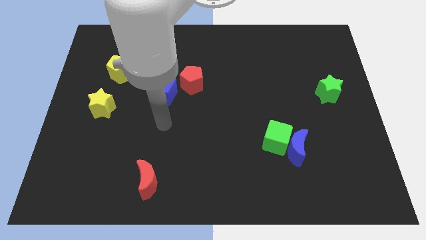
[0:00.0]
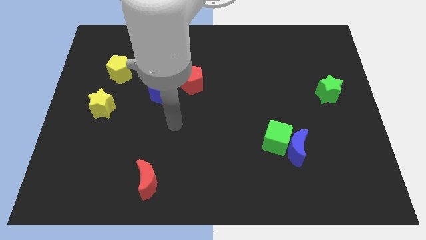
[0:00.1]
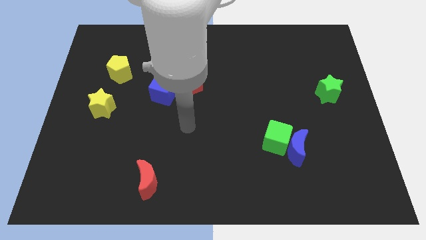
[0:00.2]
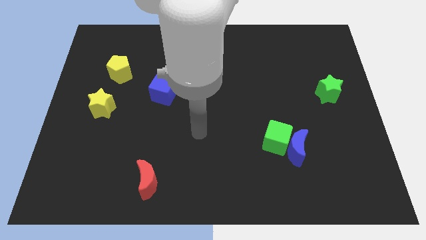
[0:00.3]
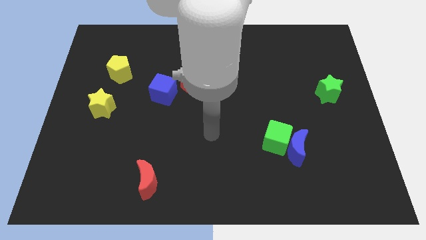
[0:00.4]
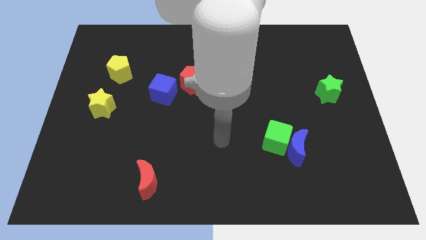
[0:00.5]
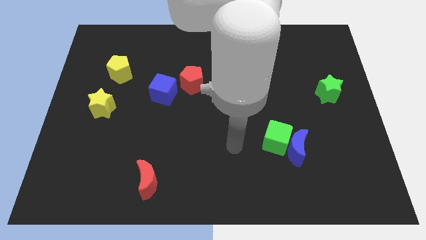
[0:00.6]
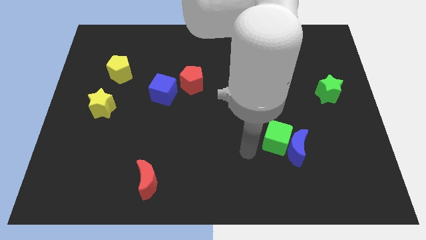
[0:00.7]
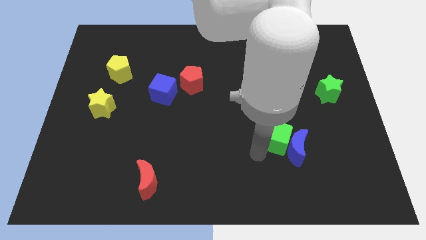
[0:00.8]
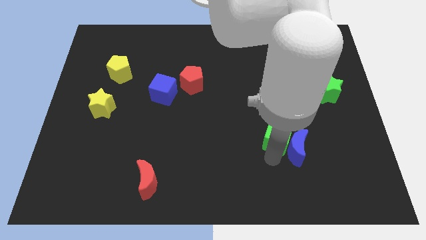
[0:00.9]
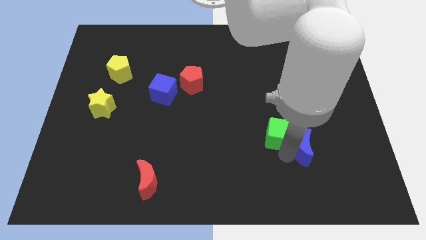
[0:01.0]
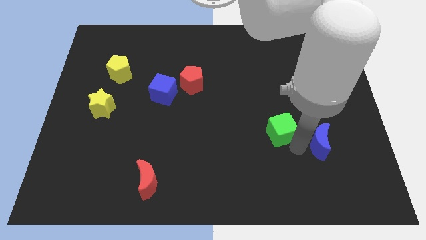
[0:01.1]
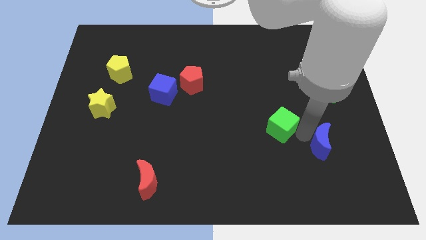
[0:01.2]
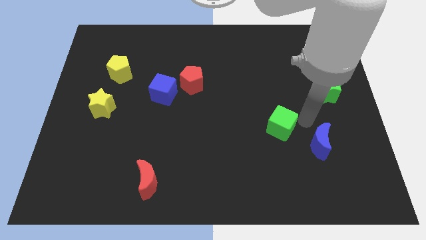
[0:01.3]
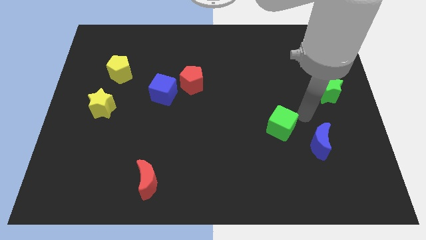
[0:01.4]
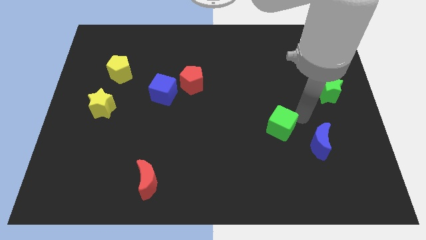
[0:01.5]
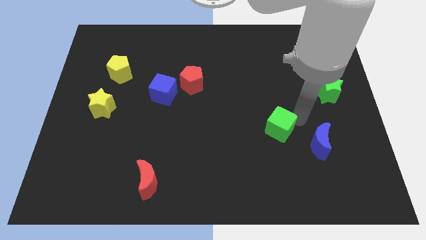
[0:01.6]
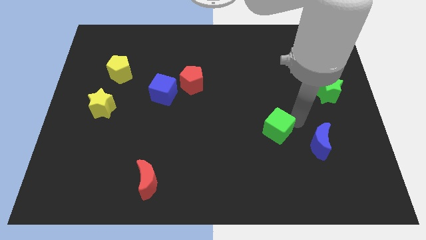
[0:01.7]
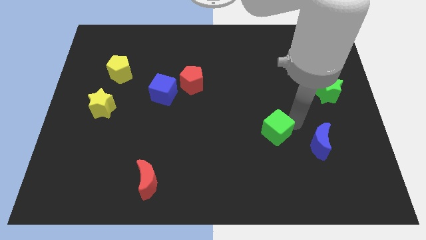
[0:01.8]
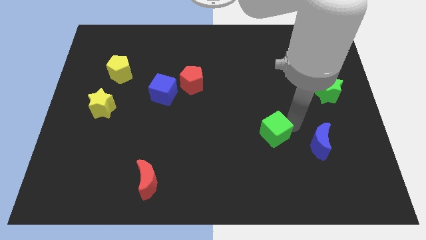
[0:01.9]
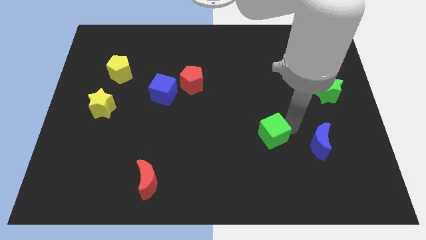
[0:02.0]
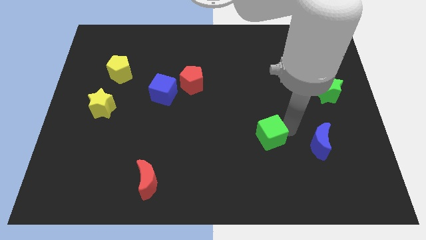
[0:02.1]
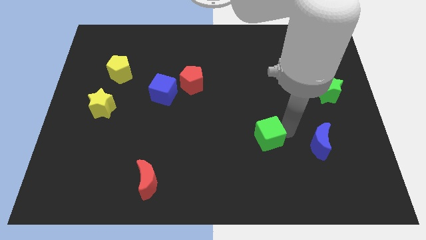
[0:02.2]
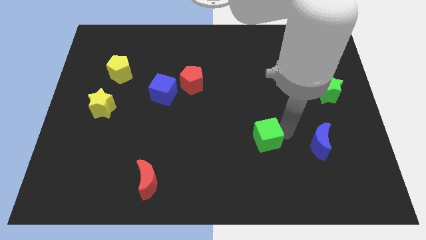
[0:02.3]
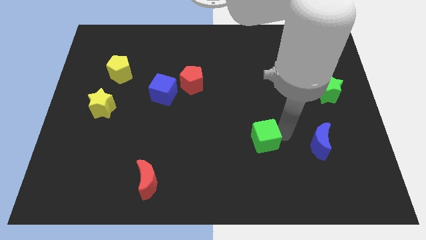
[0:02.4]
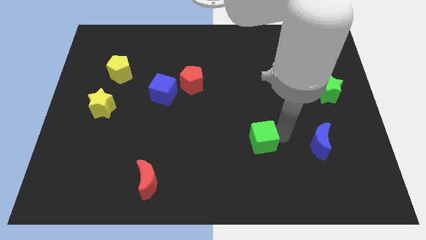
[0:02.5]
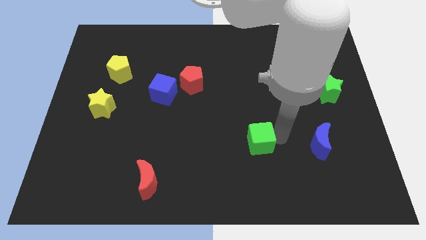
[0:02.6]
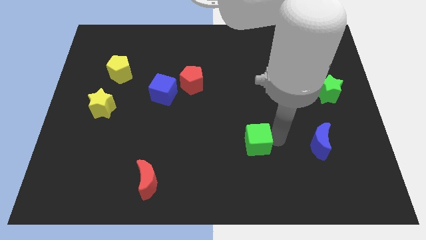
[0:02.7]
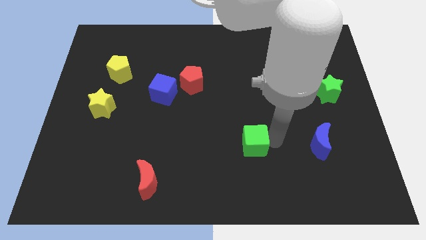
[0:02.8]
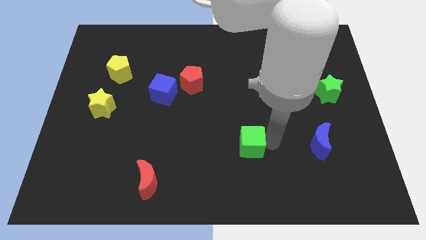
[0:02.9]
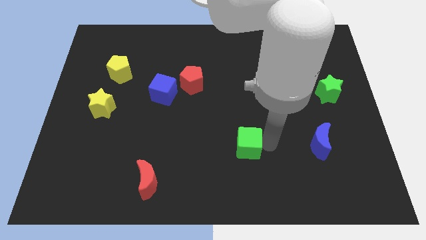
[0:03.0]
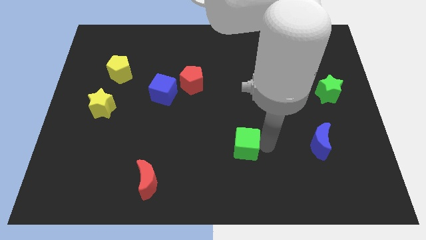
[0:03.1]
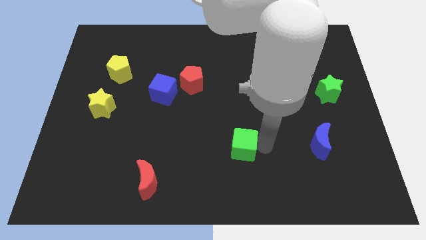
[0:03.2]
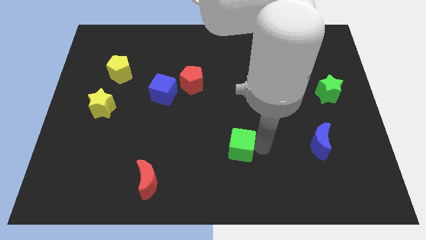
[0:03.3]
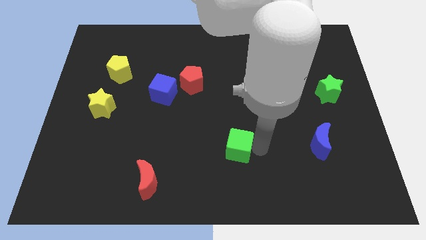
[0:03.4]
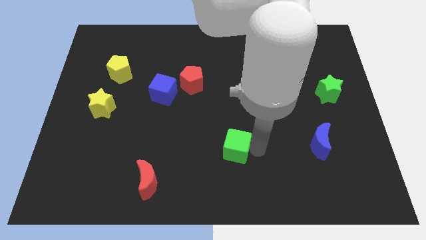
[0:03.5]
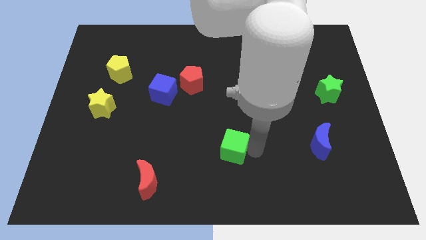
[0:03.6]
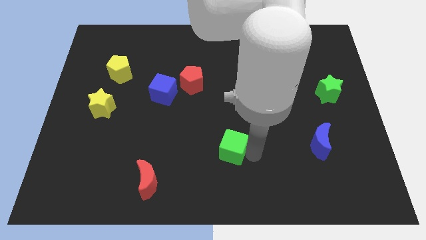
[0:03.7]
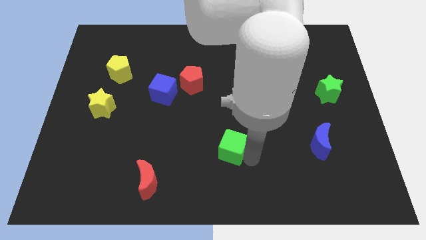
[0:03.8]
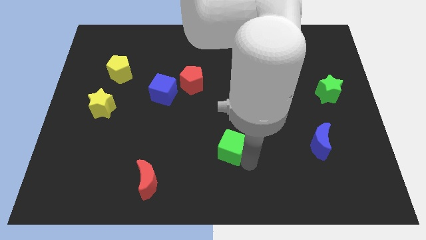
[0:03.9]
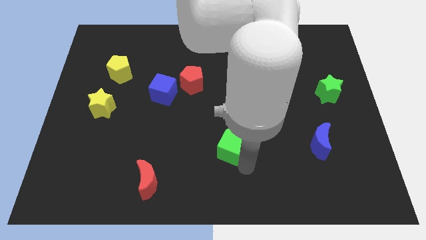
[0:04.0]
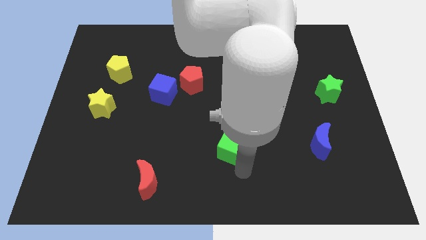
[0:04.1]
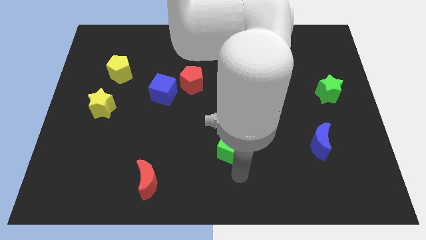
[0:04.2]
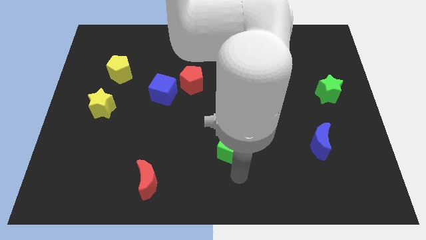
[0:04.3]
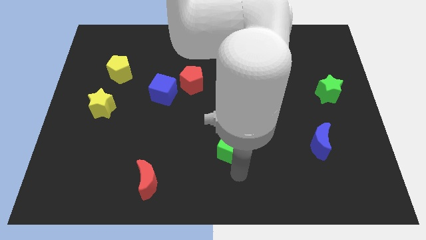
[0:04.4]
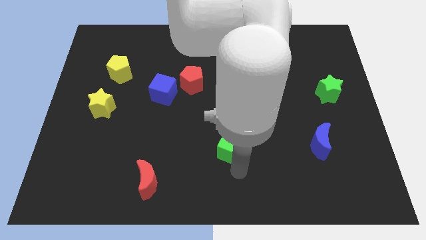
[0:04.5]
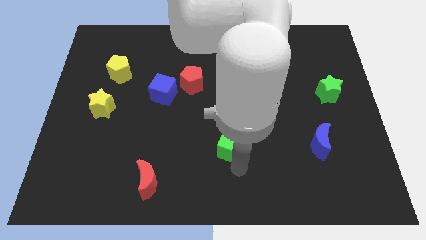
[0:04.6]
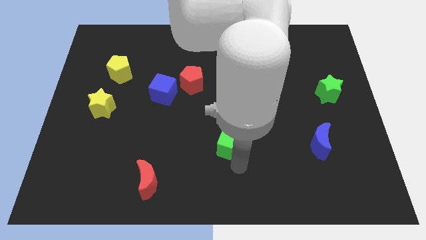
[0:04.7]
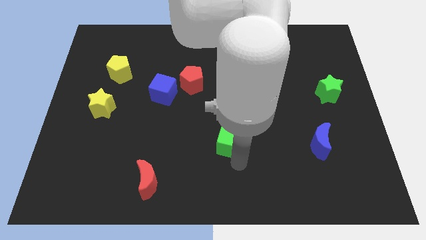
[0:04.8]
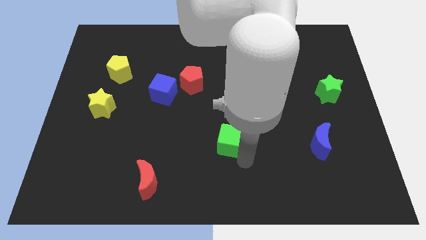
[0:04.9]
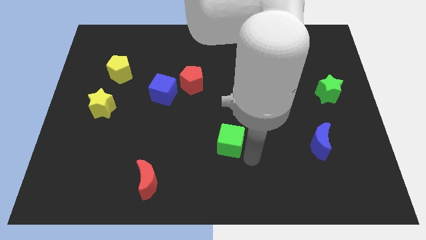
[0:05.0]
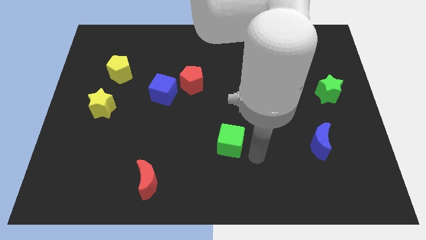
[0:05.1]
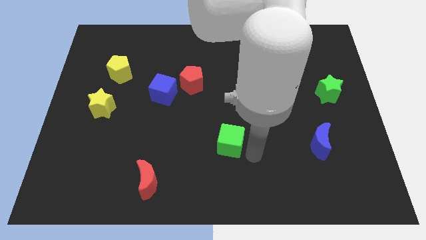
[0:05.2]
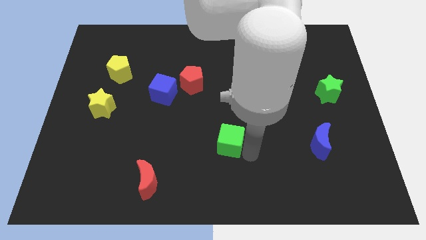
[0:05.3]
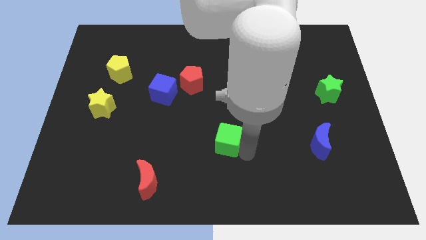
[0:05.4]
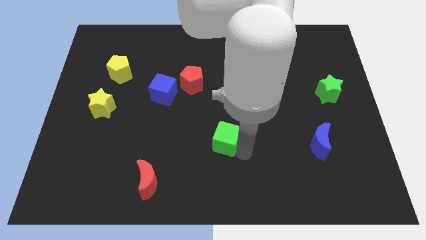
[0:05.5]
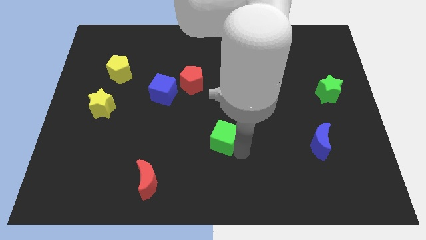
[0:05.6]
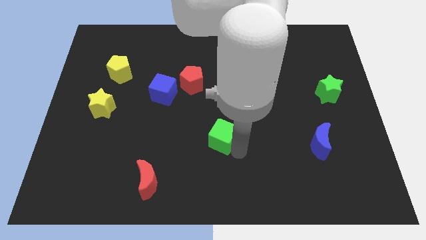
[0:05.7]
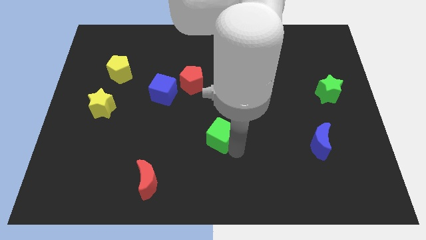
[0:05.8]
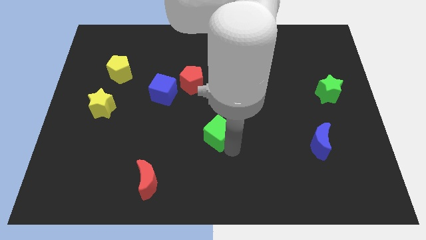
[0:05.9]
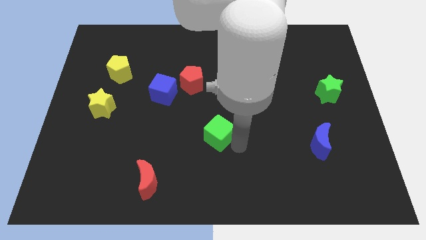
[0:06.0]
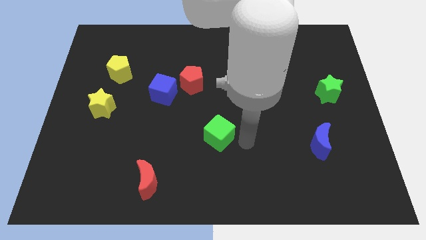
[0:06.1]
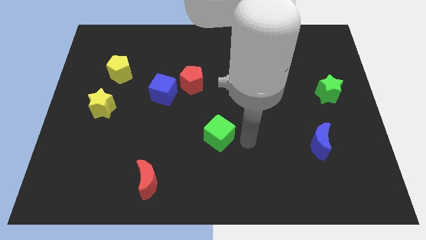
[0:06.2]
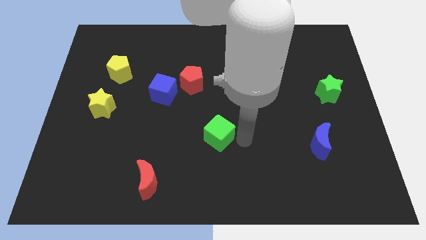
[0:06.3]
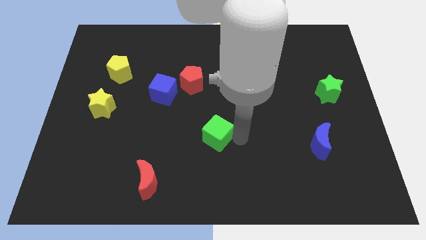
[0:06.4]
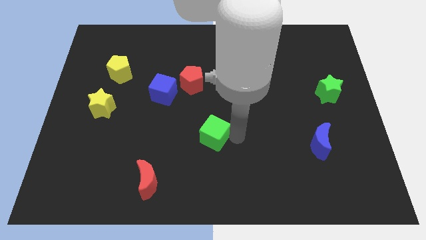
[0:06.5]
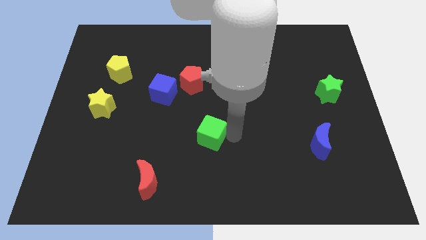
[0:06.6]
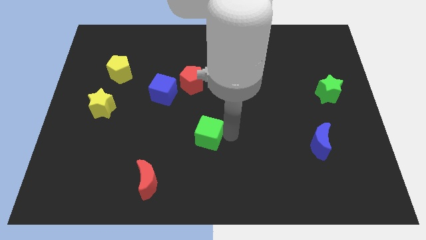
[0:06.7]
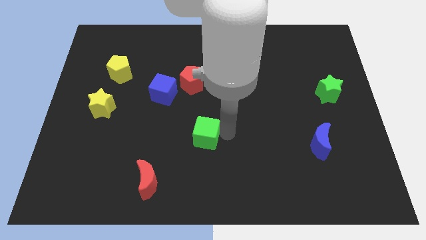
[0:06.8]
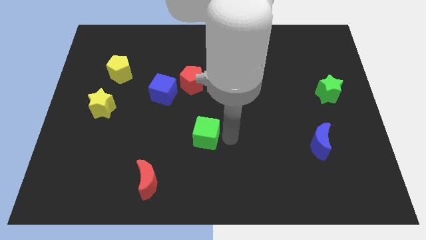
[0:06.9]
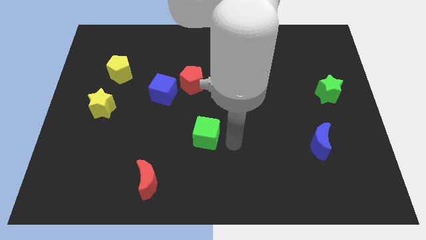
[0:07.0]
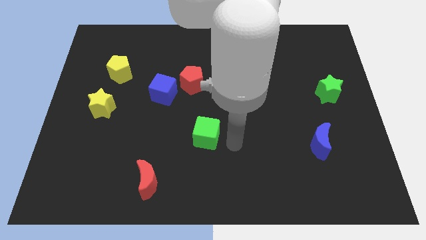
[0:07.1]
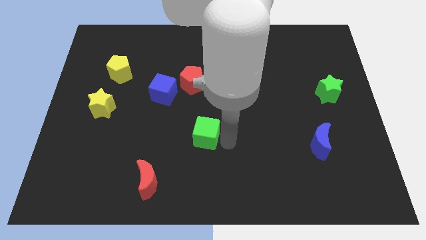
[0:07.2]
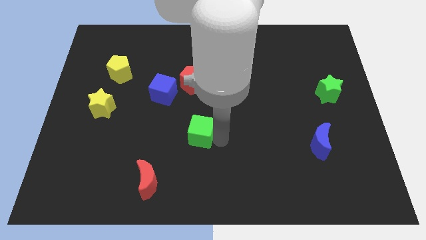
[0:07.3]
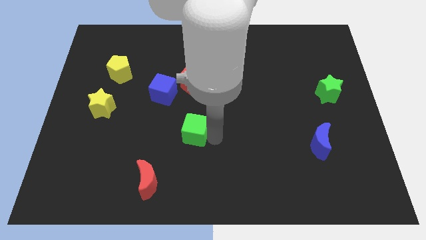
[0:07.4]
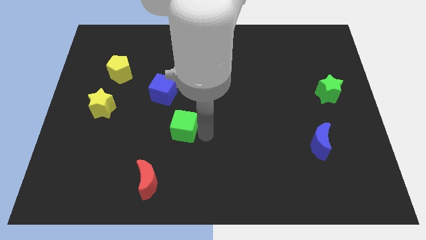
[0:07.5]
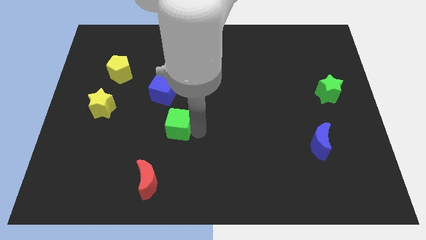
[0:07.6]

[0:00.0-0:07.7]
push the green cube below the blue cube

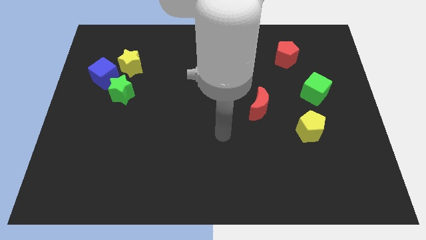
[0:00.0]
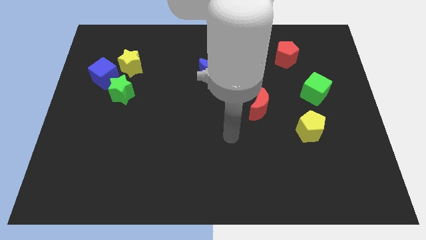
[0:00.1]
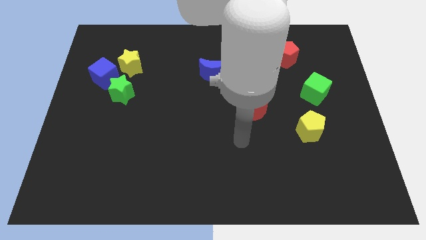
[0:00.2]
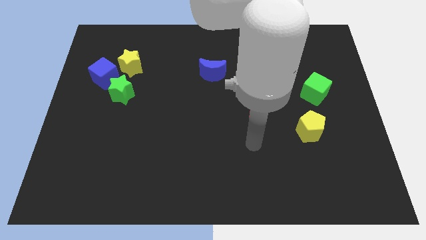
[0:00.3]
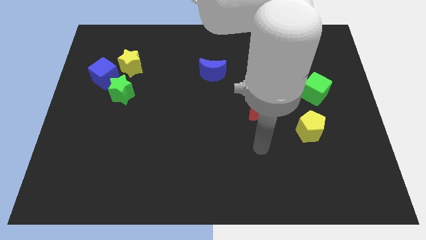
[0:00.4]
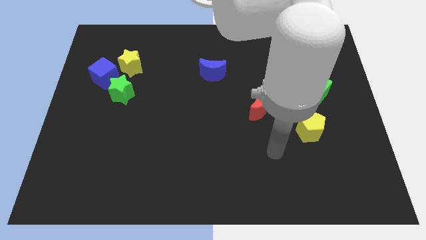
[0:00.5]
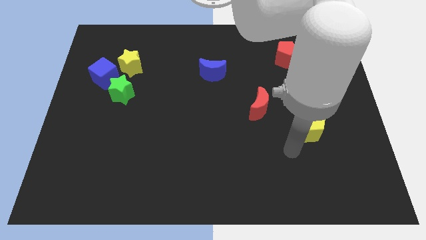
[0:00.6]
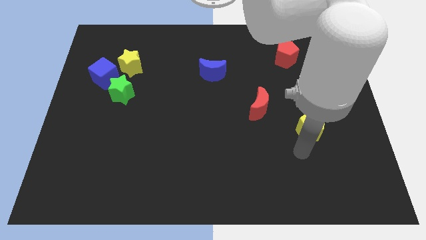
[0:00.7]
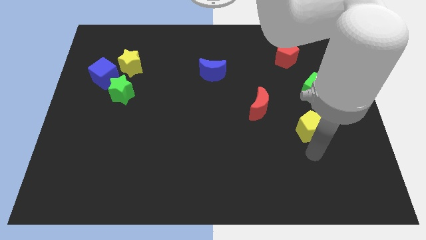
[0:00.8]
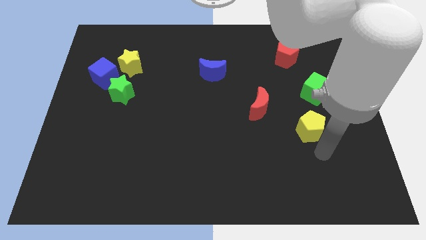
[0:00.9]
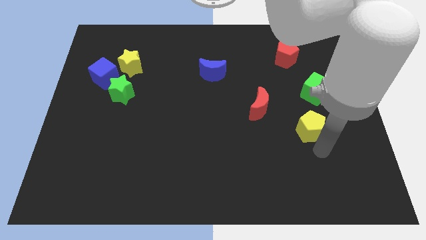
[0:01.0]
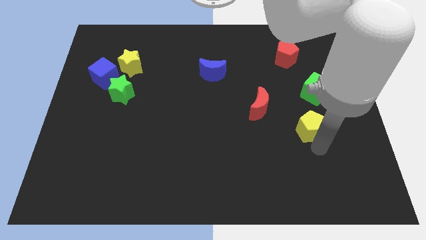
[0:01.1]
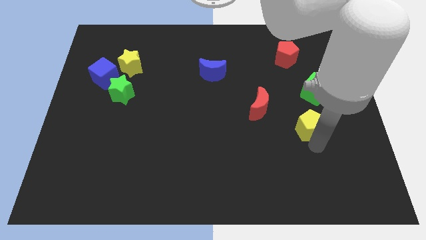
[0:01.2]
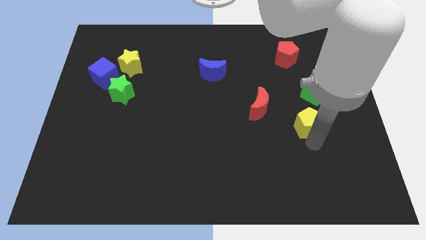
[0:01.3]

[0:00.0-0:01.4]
put the yellow pentagon diagonally down and to the left of the green cube
